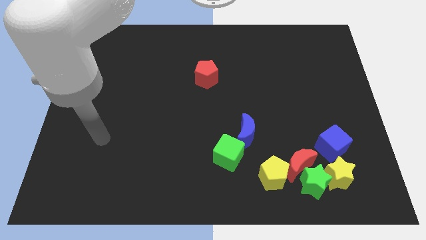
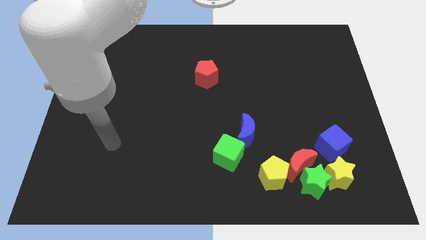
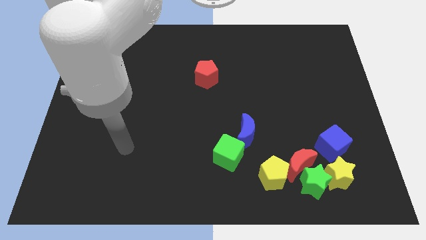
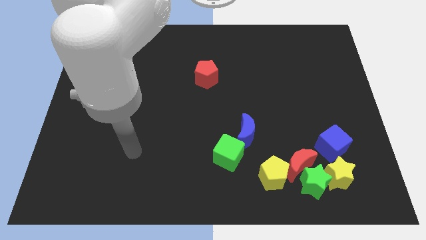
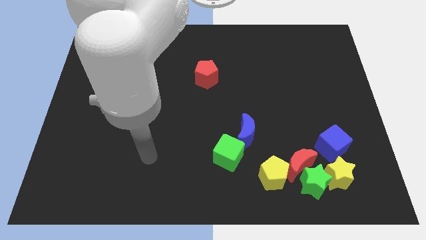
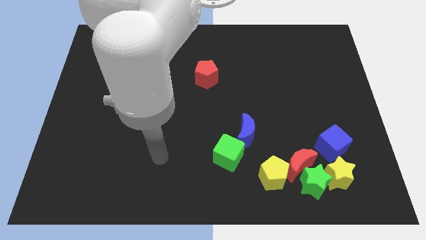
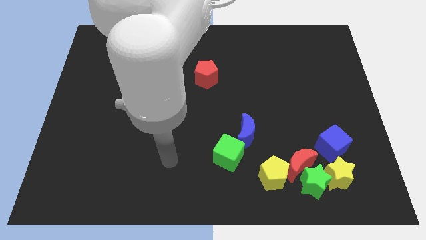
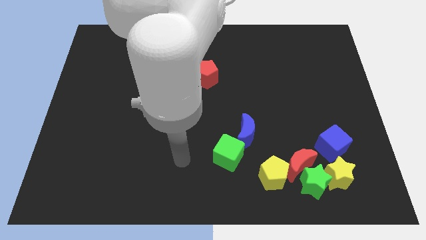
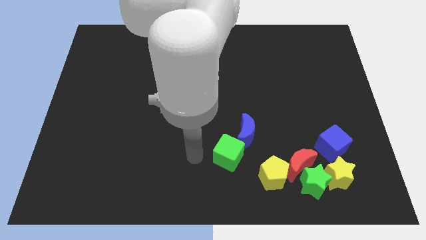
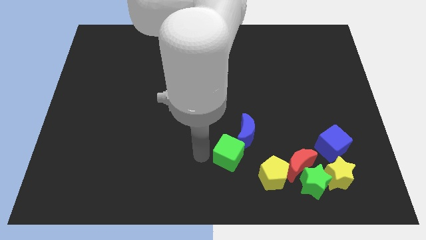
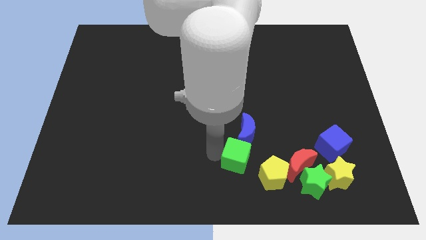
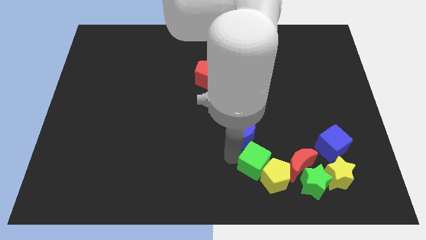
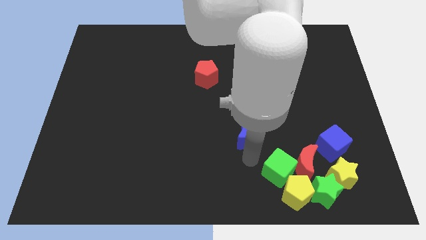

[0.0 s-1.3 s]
separate the blue moon from the green cube

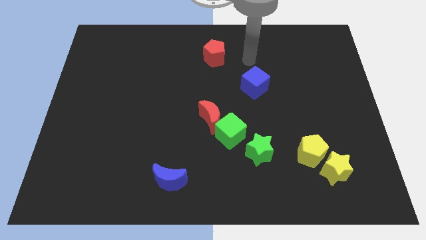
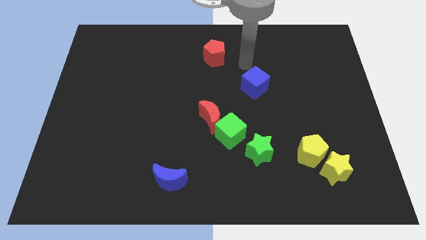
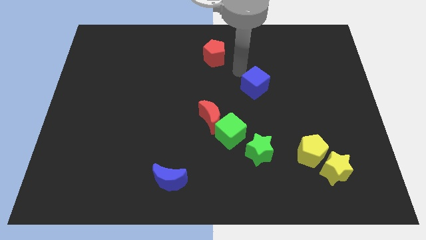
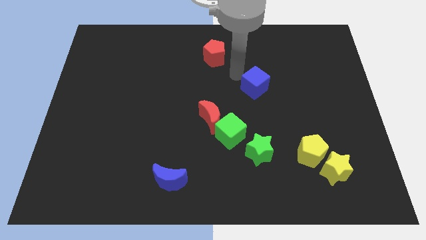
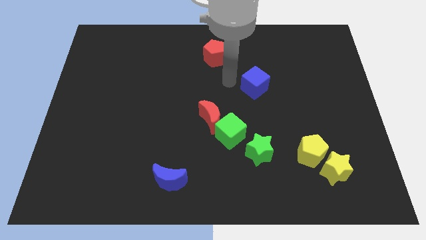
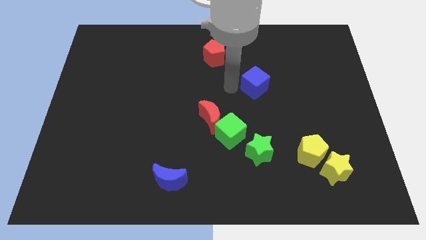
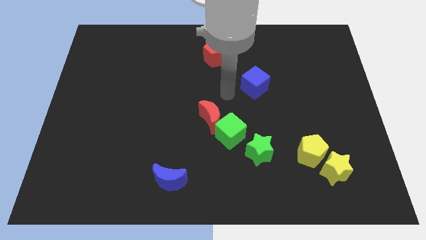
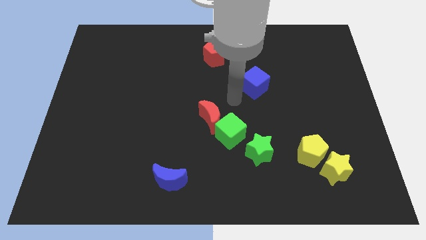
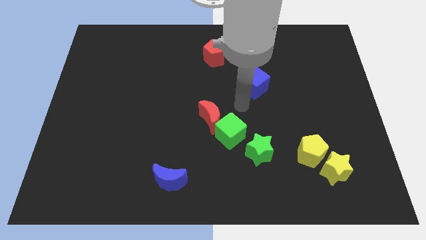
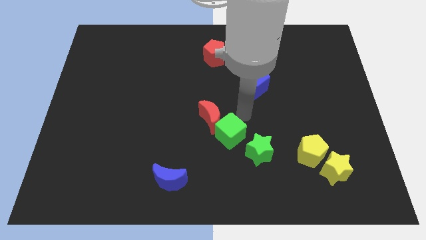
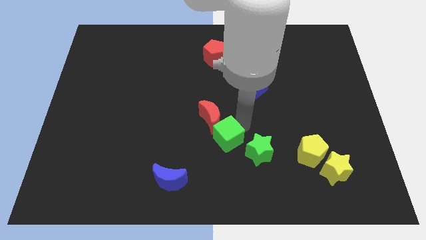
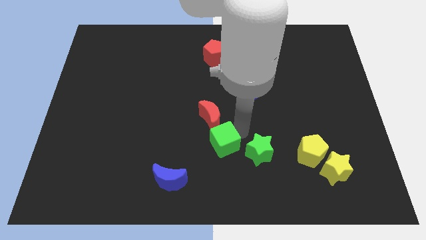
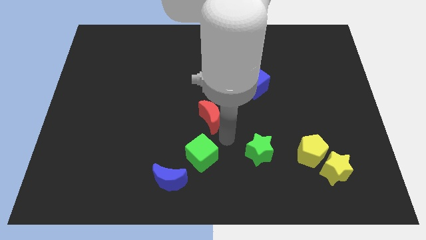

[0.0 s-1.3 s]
pull the red moon apart from the green cube

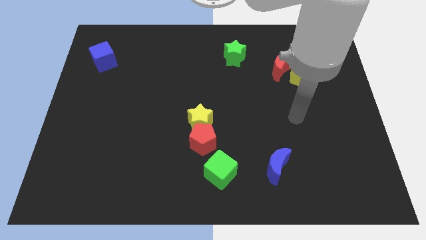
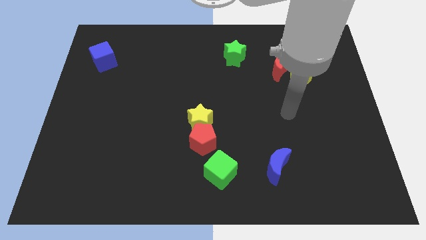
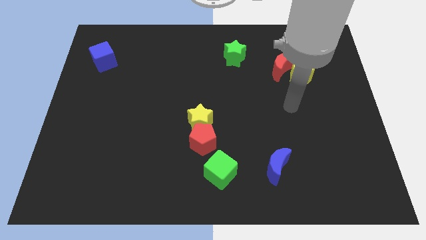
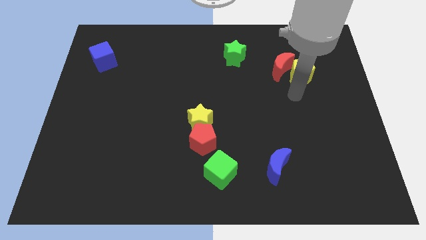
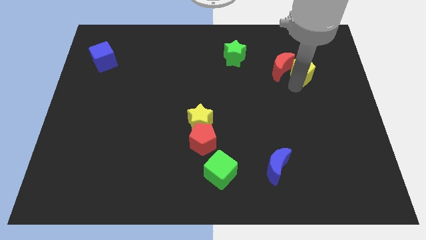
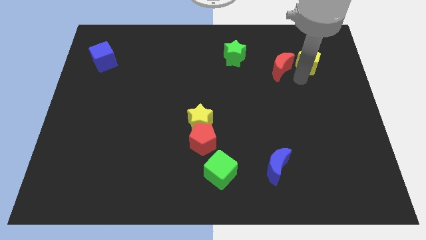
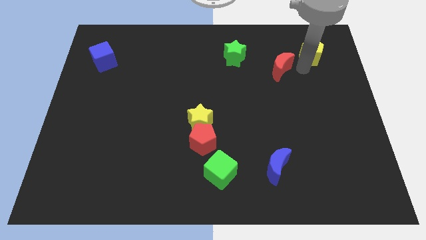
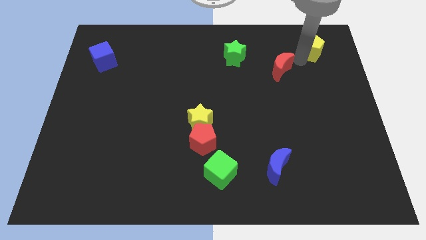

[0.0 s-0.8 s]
pull the red moon apart from the yellow pentagon

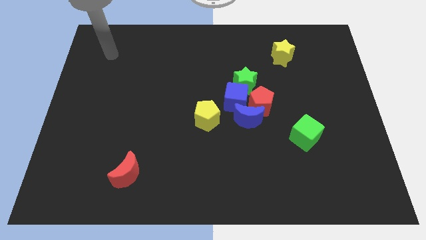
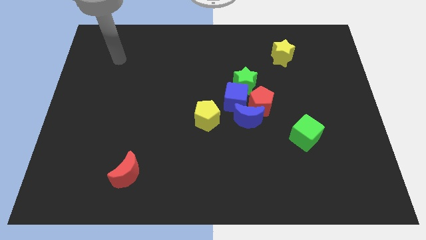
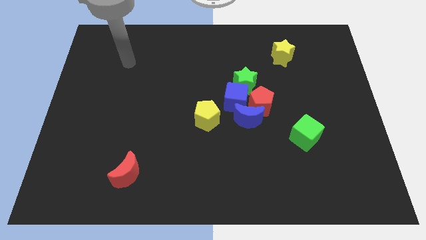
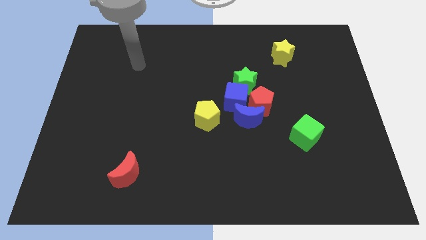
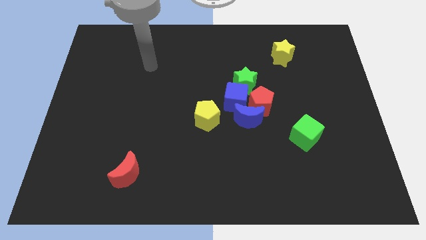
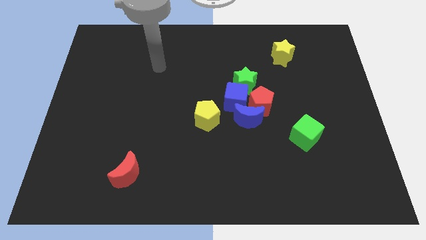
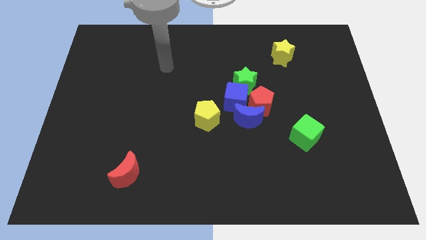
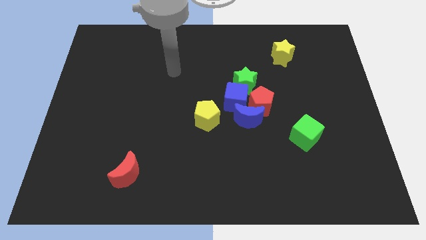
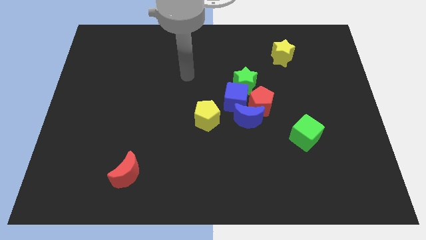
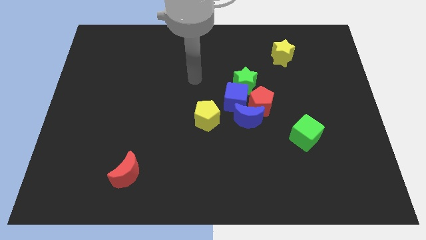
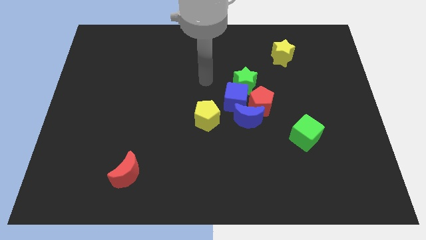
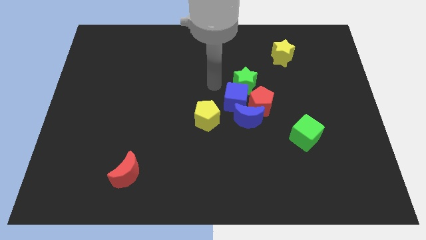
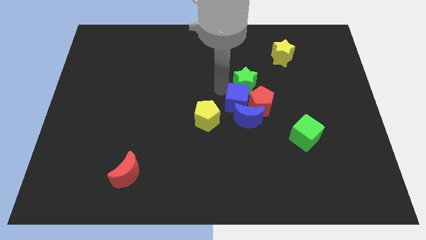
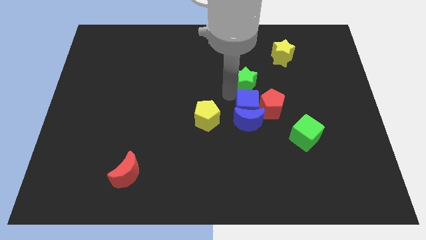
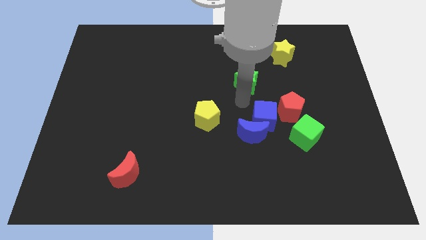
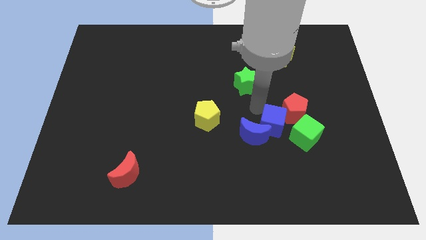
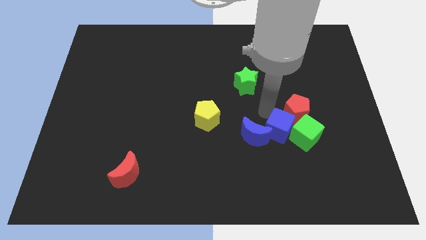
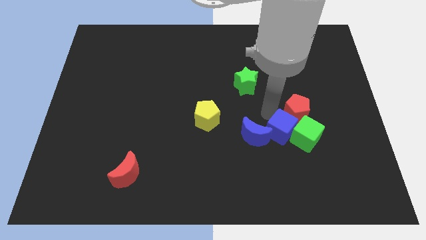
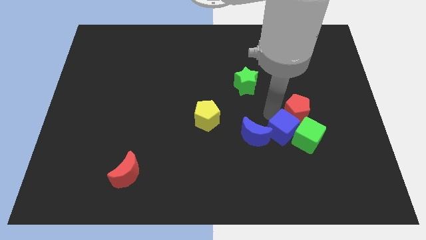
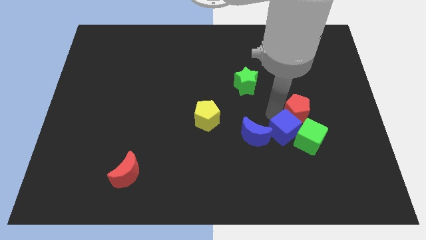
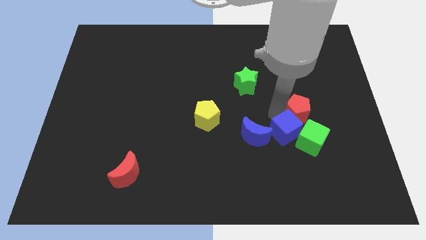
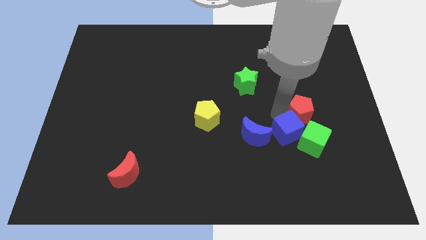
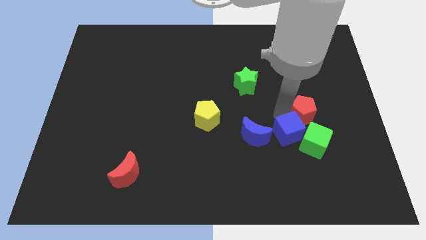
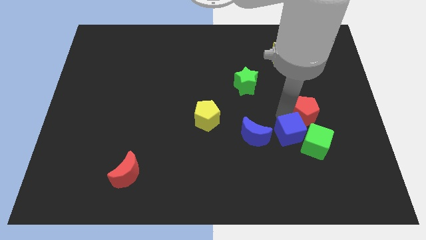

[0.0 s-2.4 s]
separate the red pentagon from the blue moon, blue cube, and green star

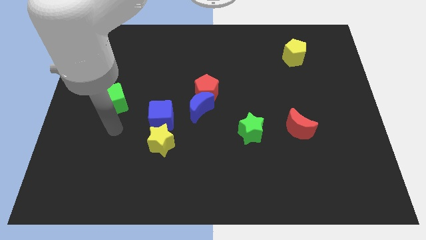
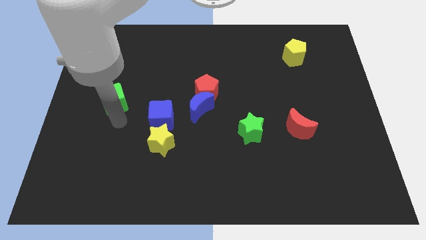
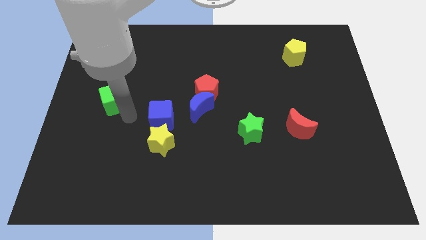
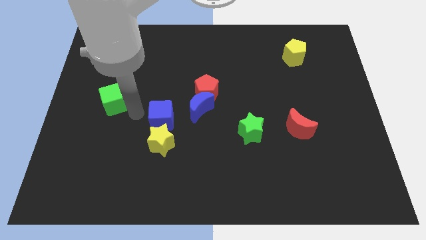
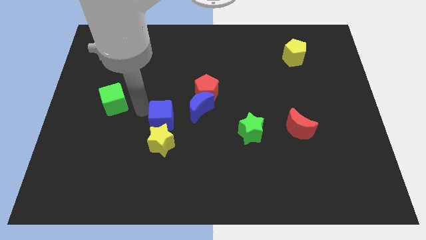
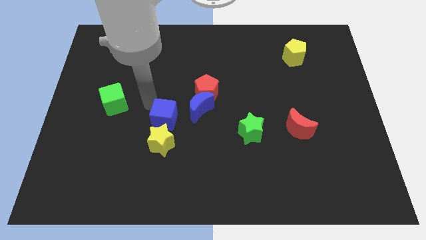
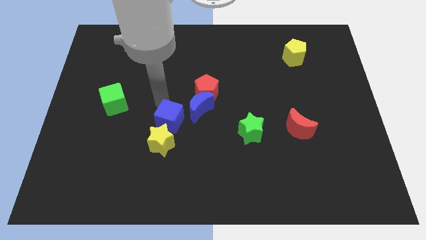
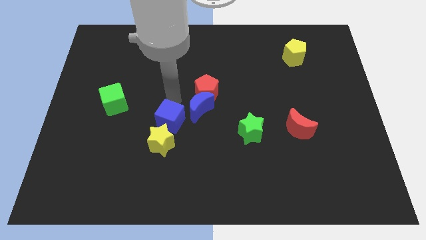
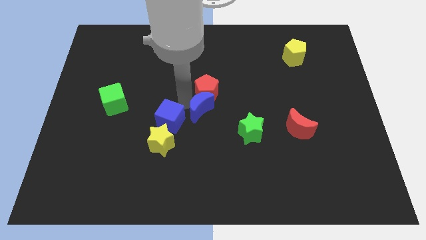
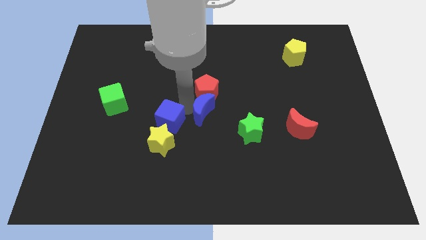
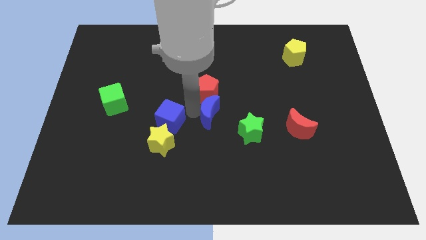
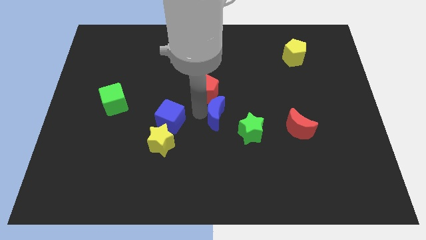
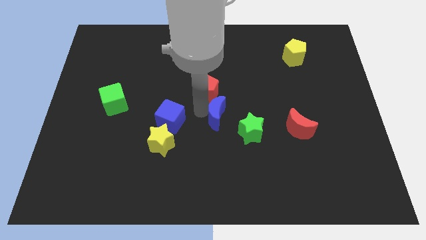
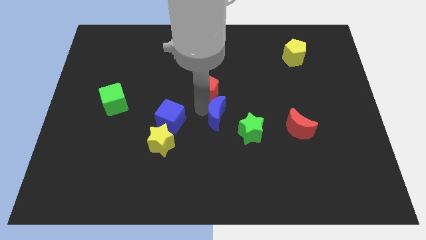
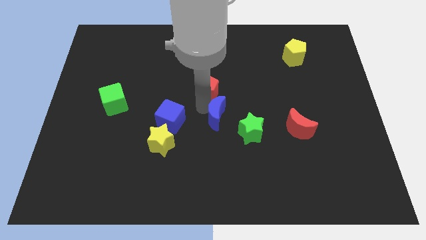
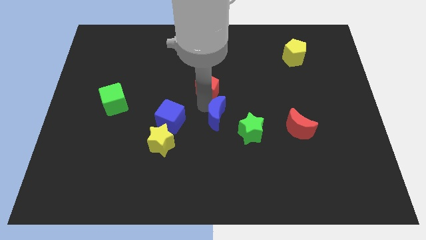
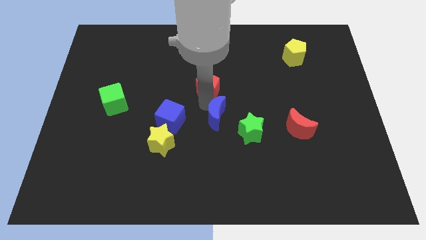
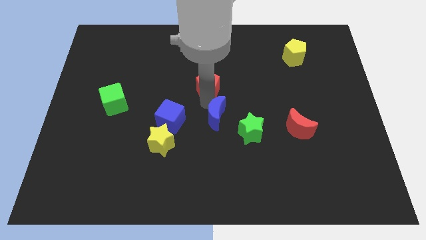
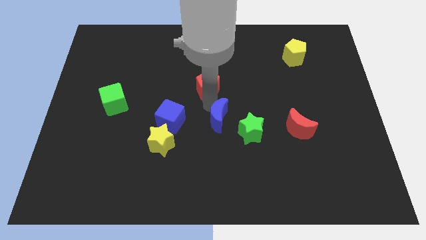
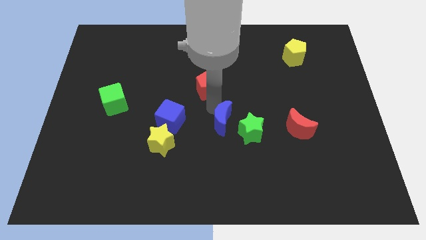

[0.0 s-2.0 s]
move the red pentagon away from the blue moon

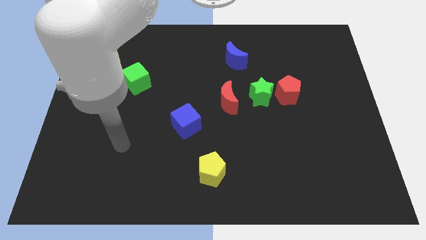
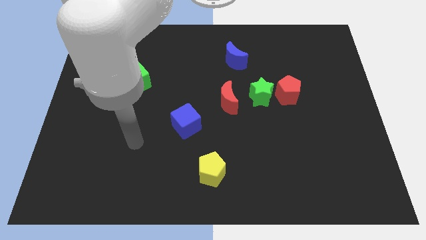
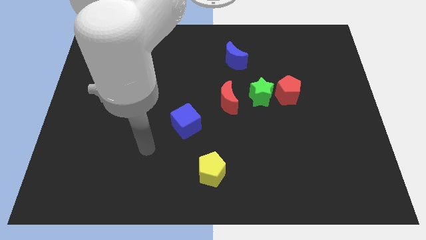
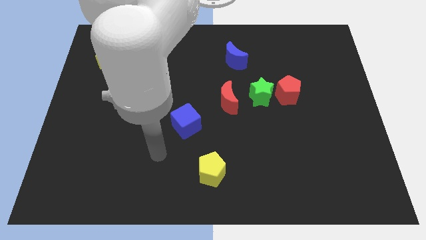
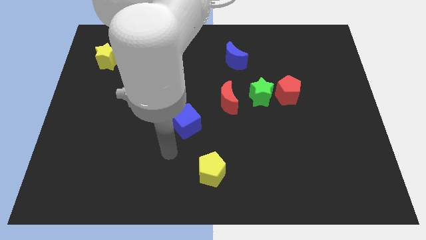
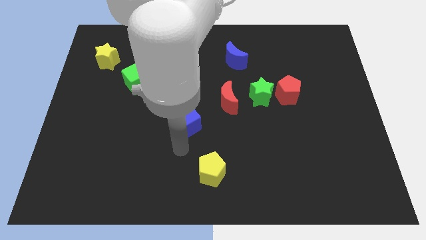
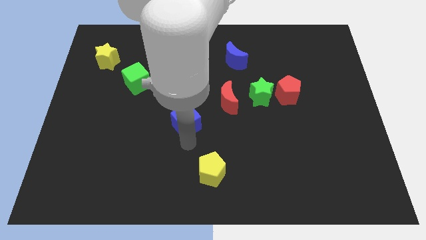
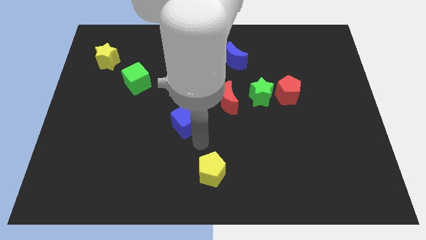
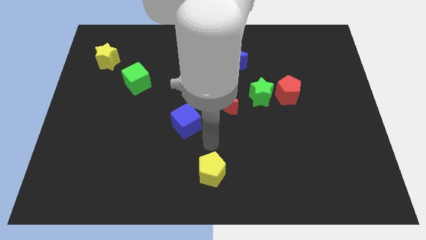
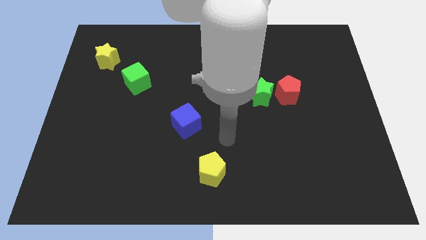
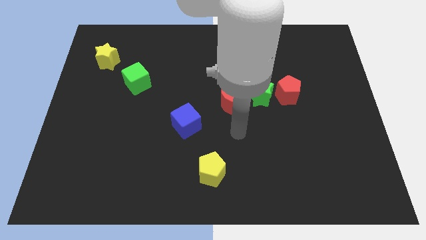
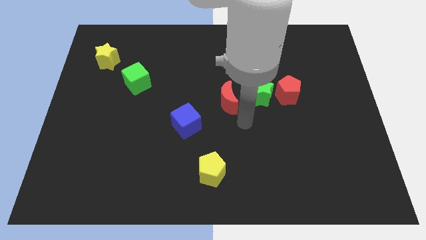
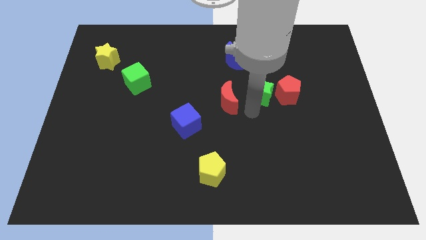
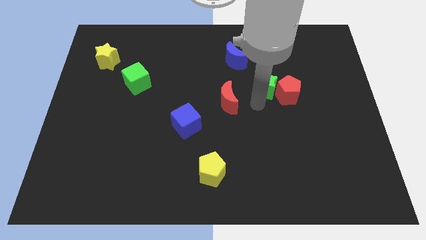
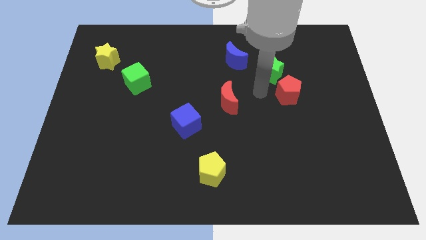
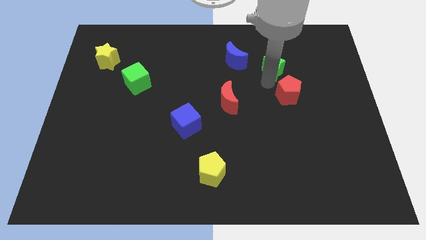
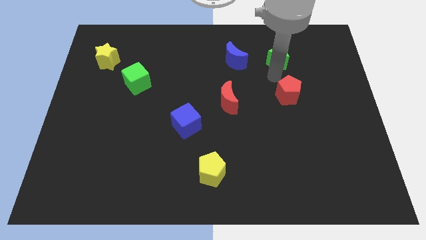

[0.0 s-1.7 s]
separate the red pentagon from the green star
